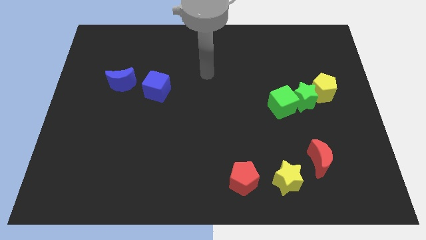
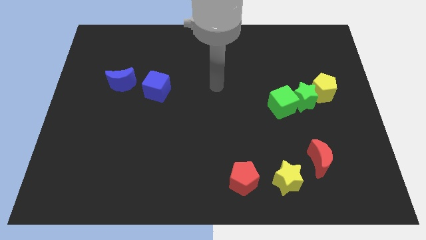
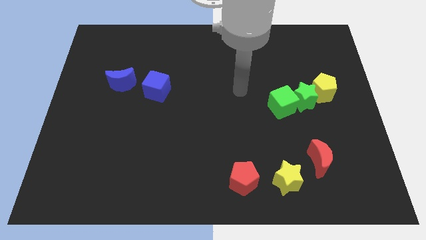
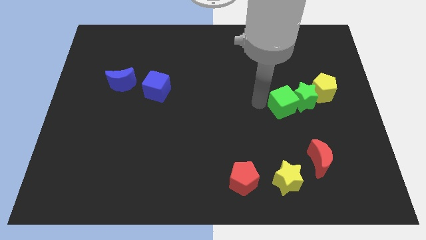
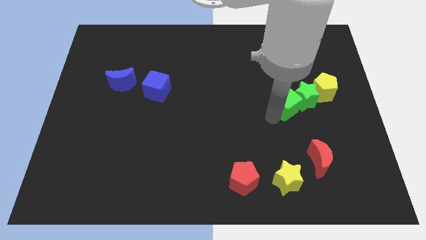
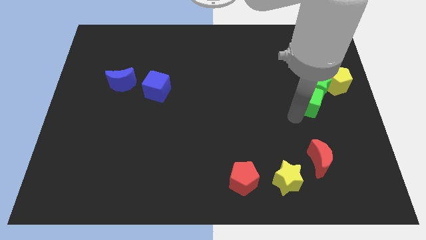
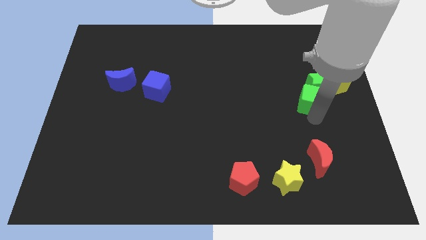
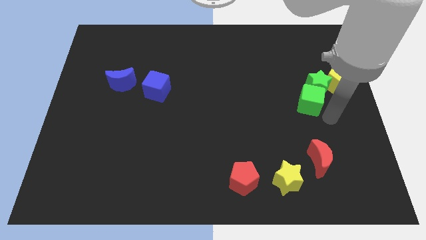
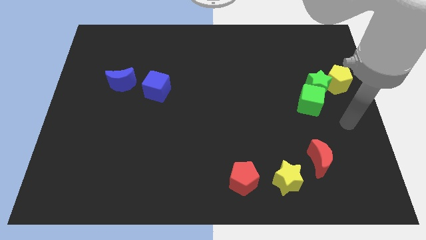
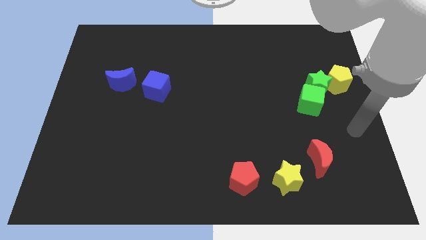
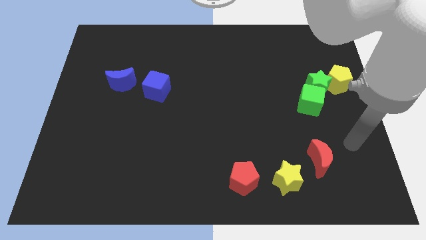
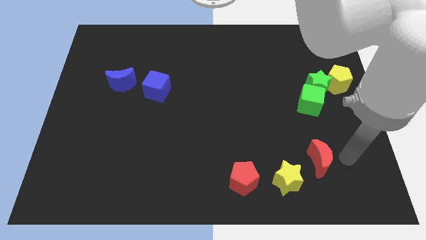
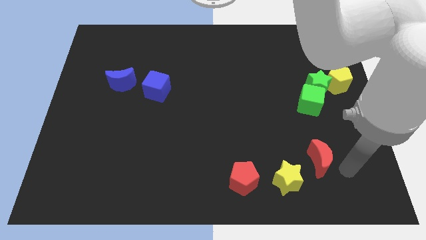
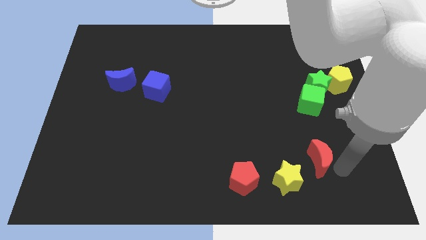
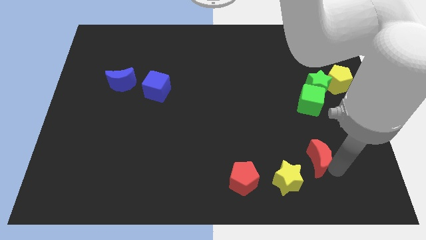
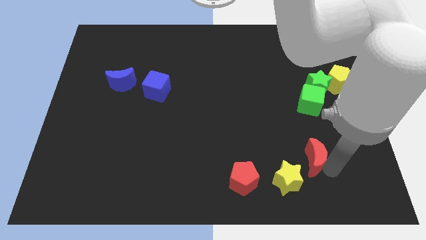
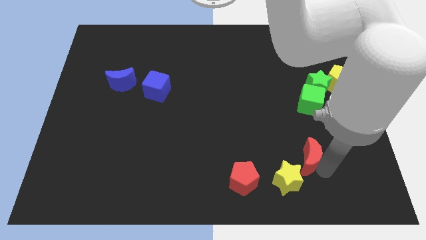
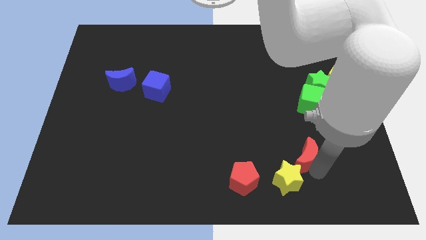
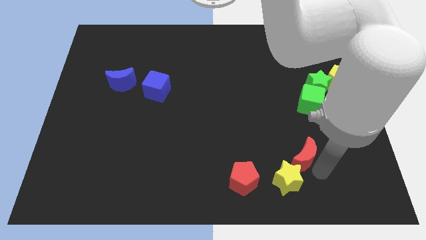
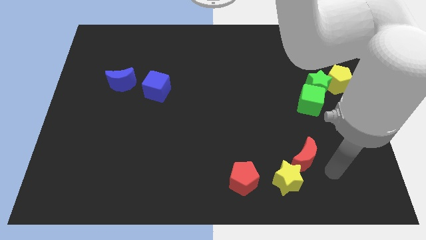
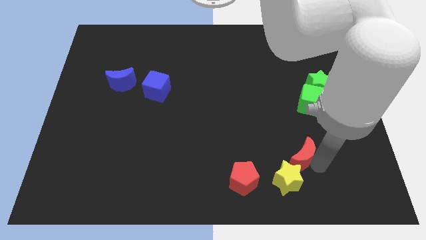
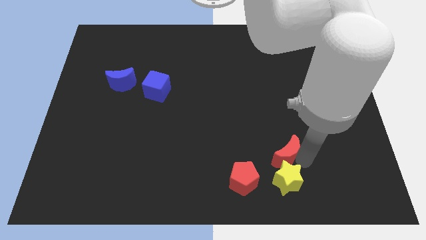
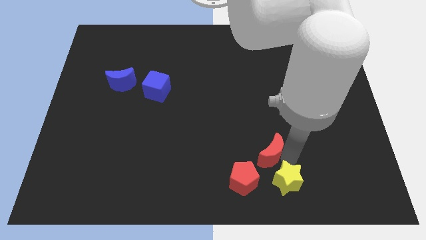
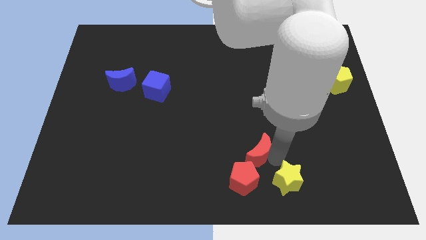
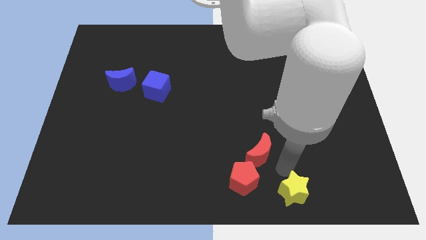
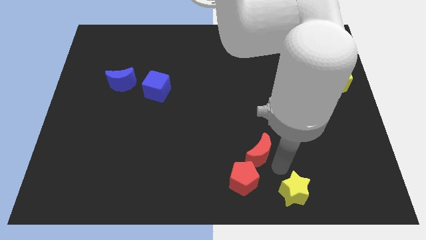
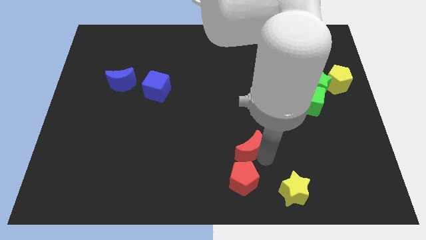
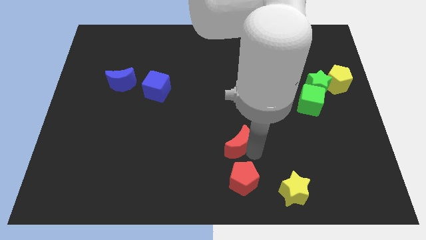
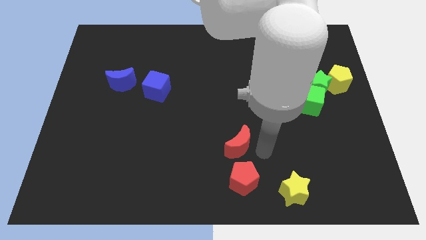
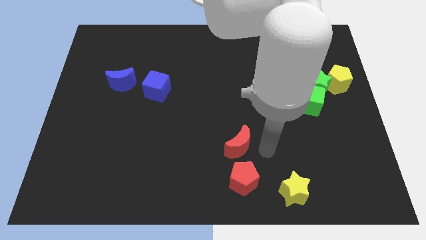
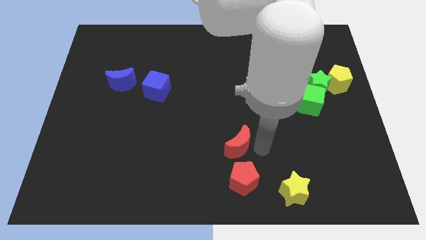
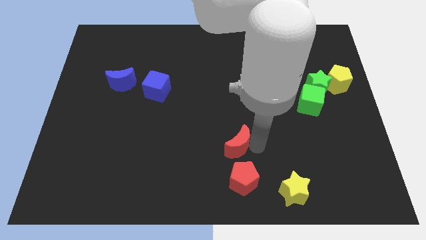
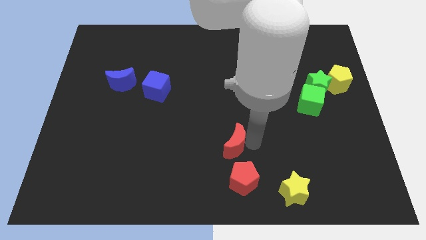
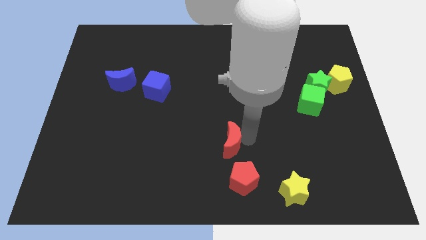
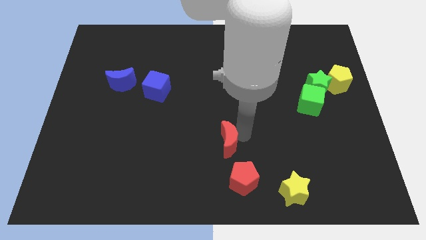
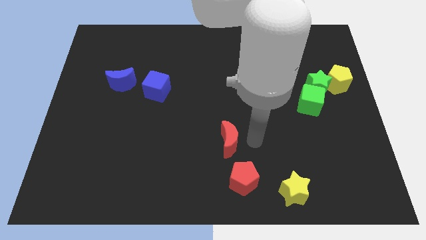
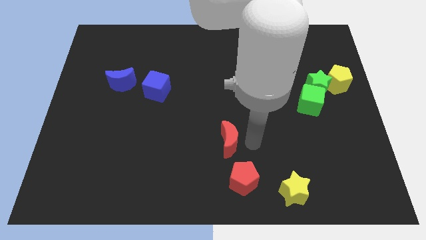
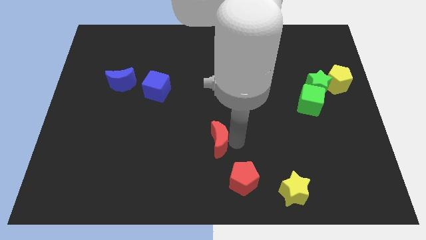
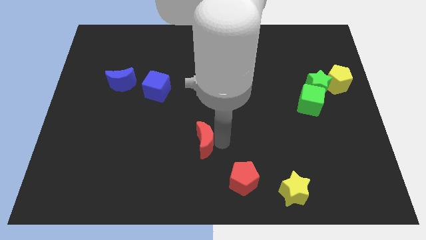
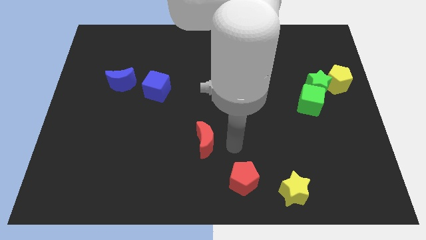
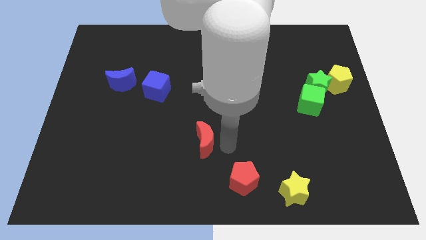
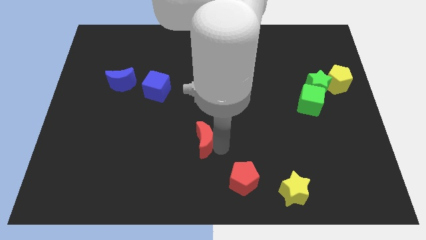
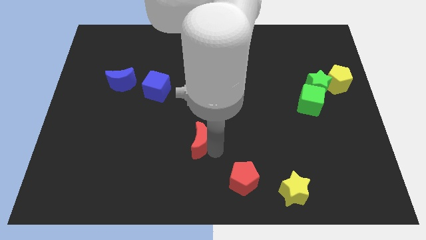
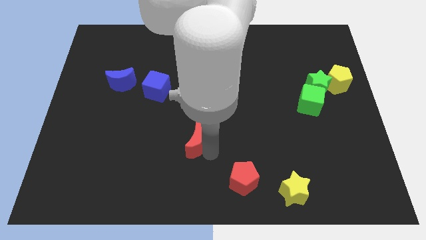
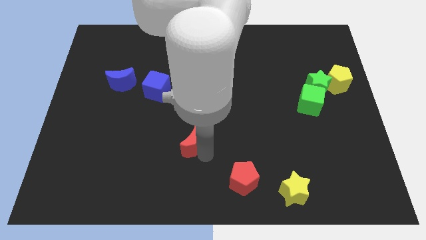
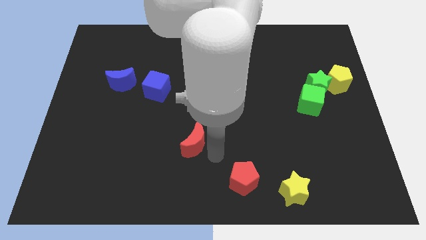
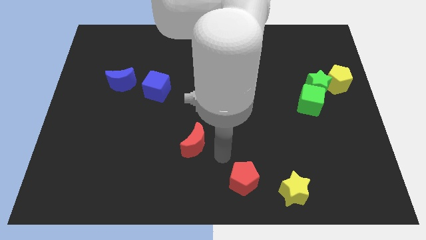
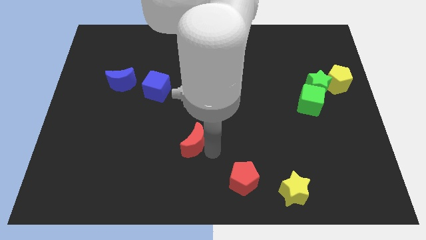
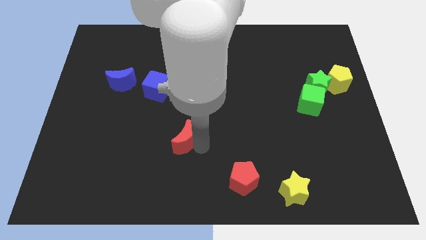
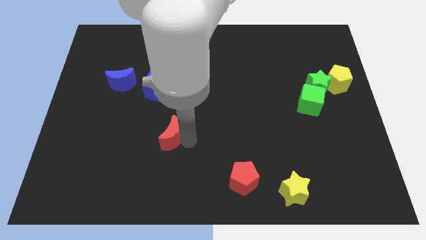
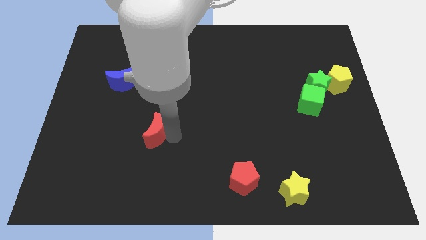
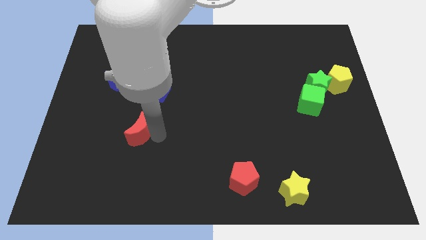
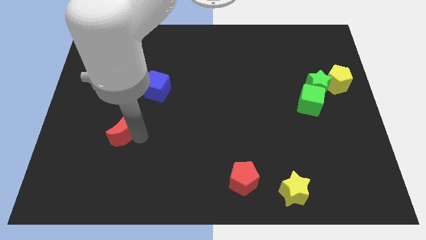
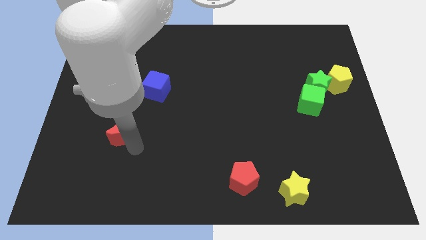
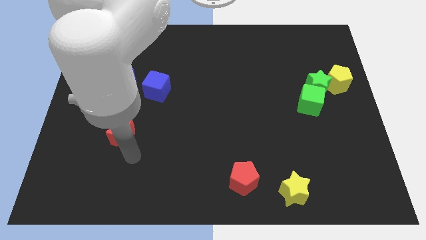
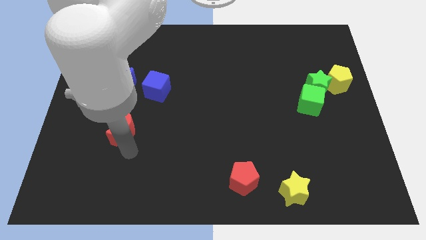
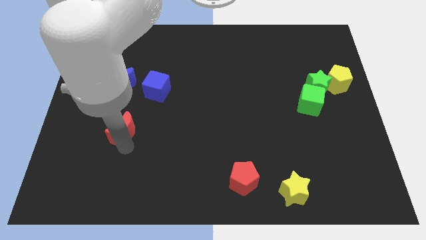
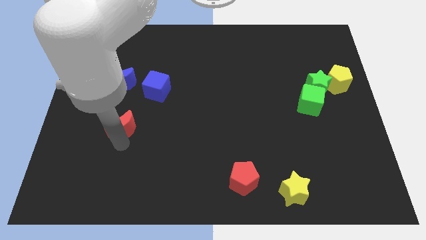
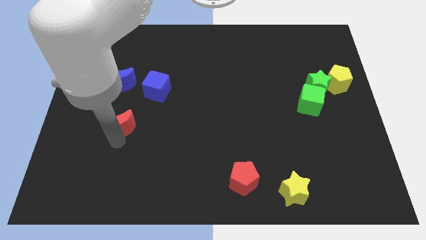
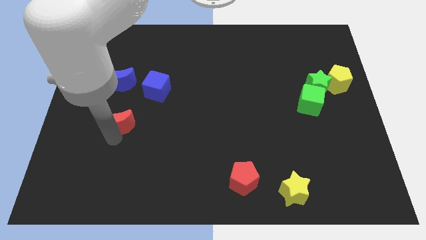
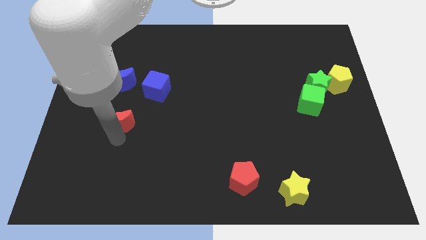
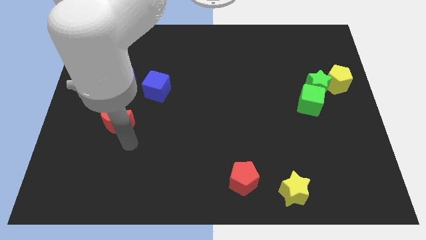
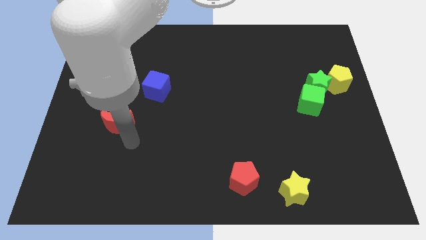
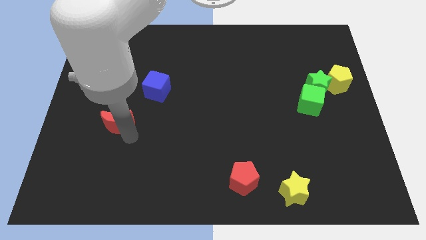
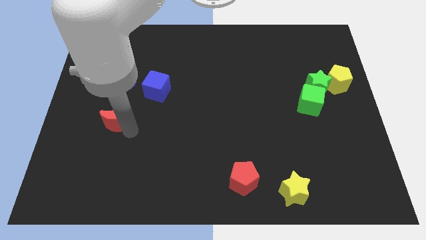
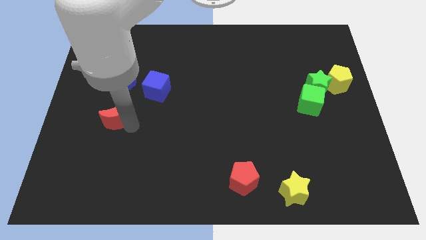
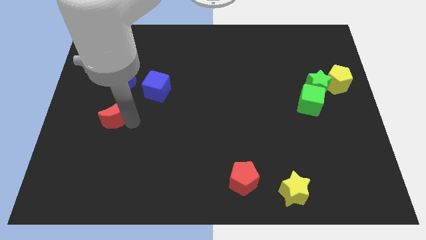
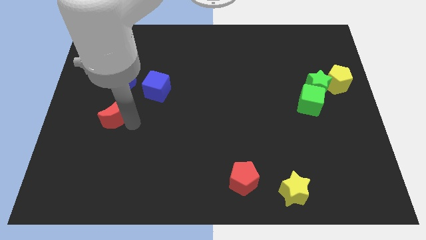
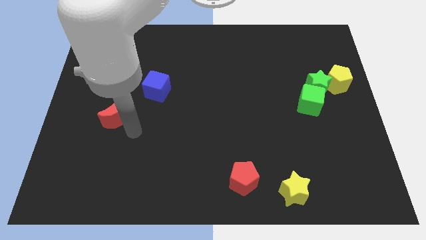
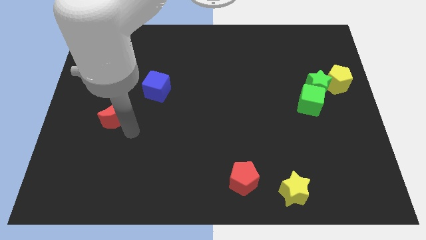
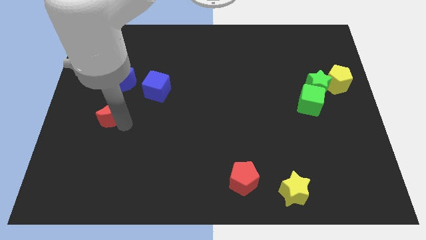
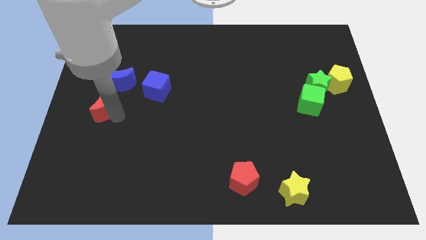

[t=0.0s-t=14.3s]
push the red moon to the left side of the board

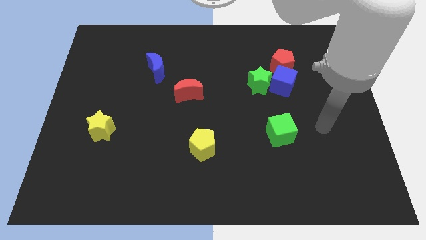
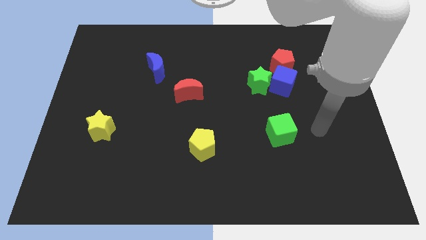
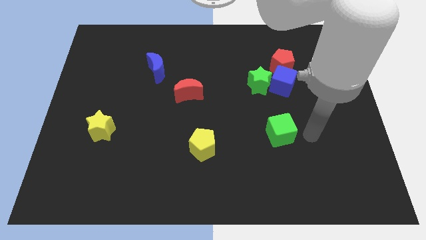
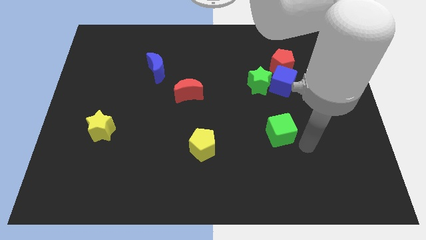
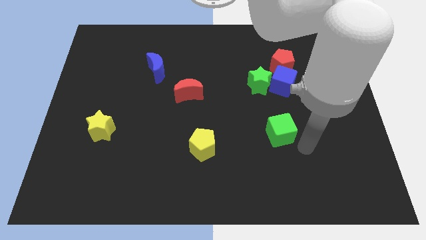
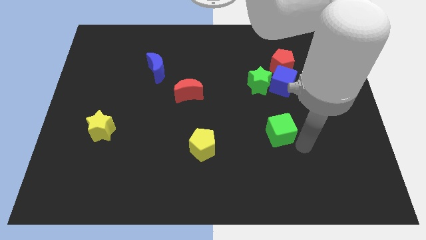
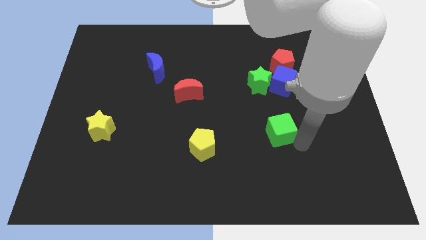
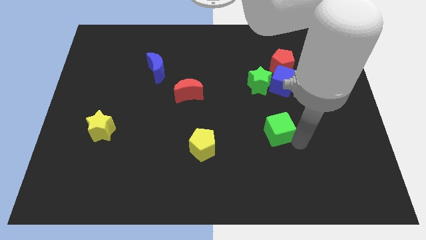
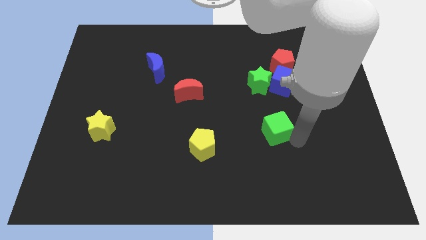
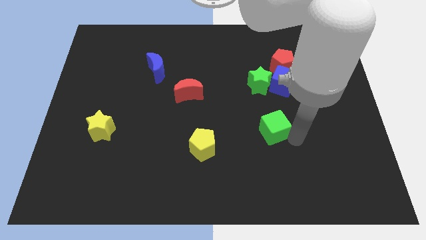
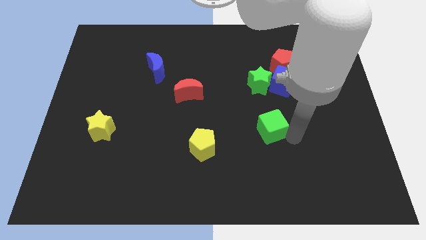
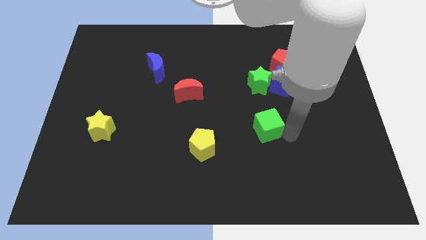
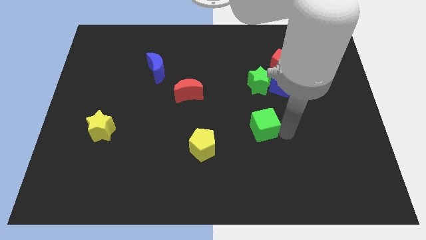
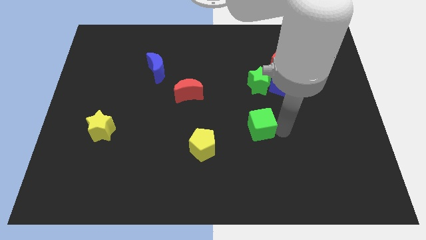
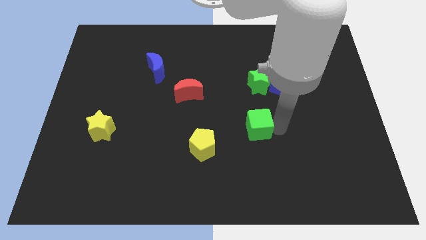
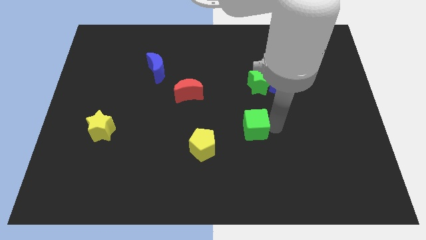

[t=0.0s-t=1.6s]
put the green cube to the middle of the board
